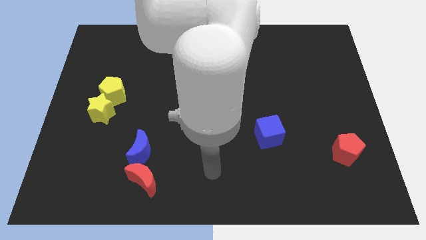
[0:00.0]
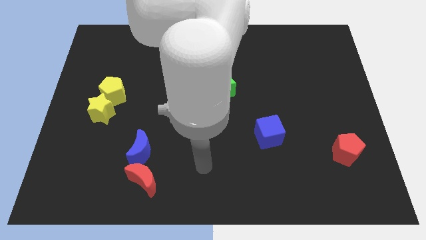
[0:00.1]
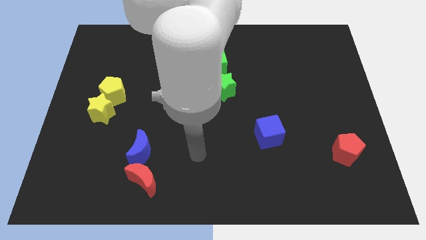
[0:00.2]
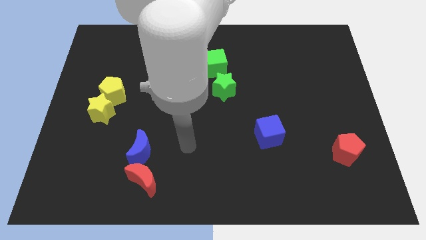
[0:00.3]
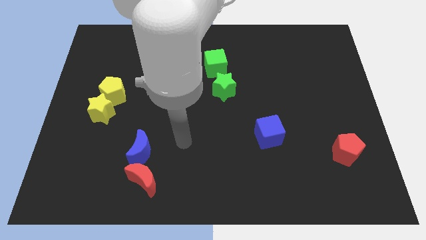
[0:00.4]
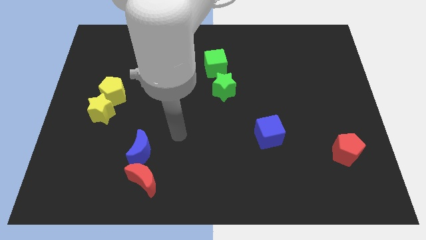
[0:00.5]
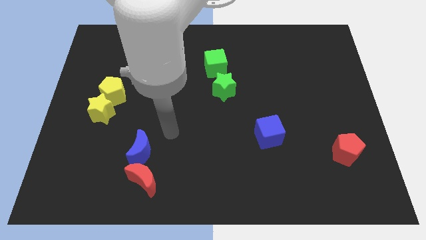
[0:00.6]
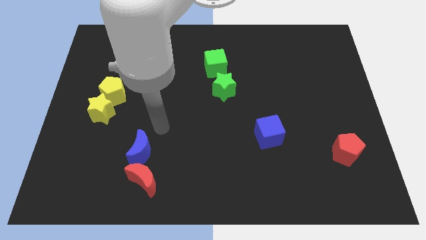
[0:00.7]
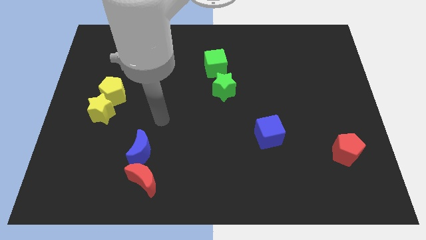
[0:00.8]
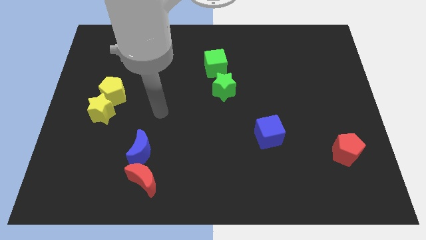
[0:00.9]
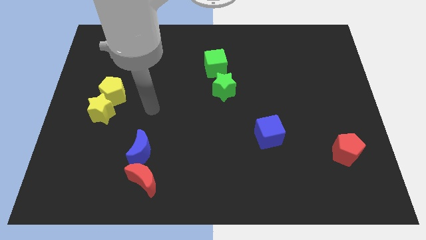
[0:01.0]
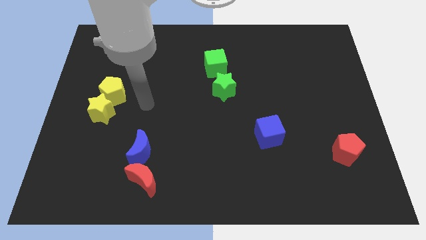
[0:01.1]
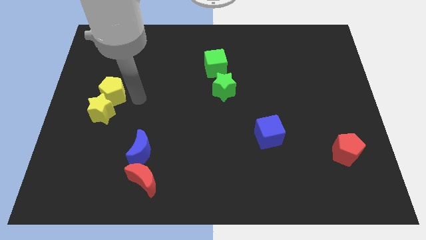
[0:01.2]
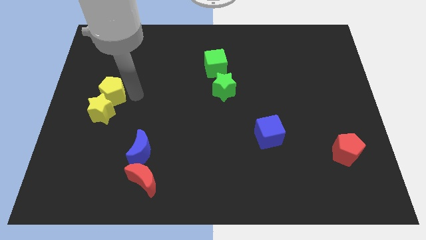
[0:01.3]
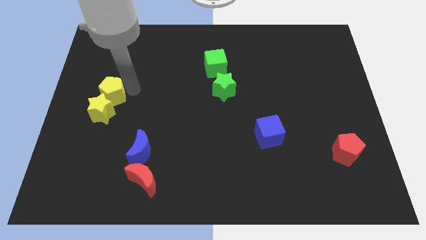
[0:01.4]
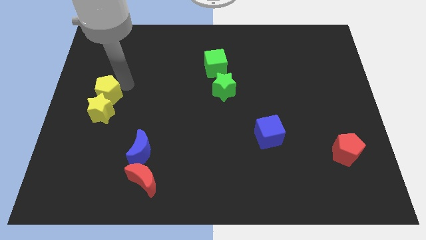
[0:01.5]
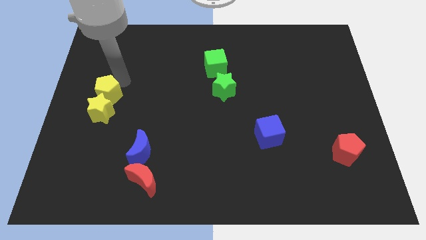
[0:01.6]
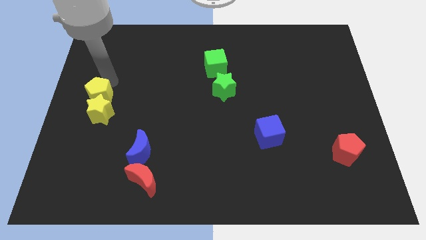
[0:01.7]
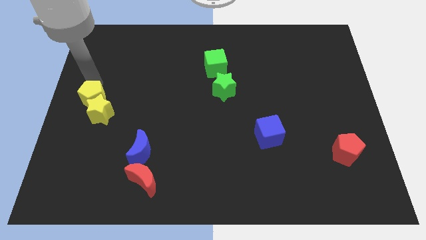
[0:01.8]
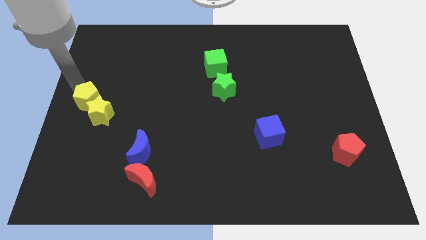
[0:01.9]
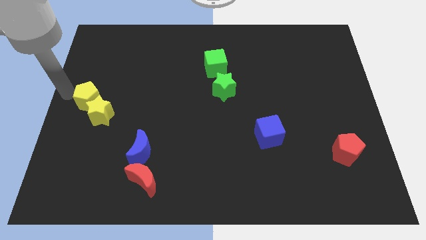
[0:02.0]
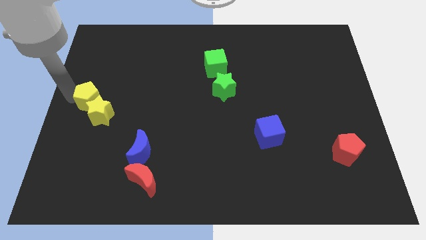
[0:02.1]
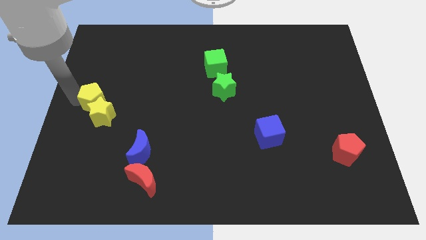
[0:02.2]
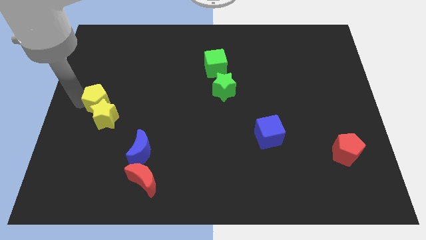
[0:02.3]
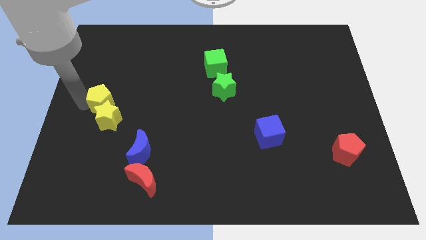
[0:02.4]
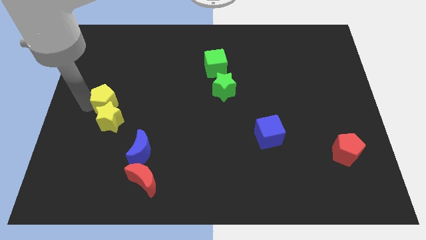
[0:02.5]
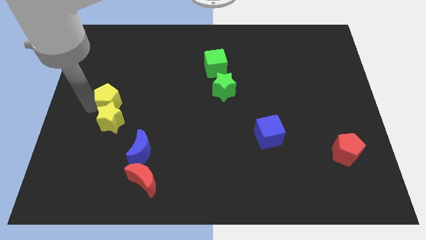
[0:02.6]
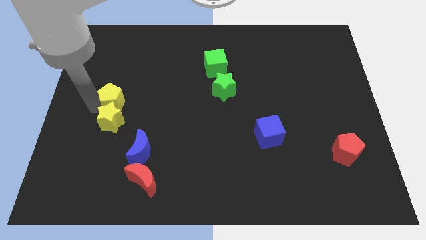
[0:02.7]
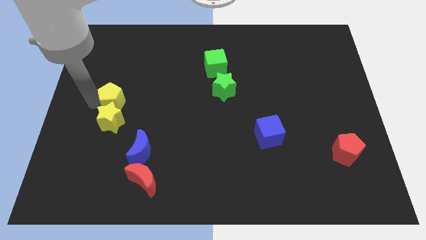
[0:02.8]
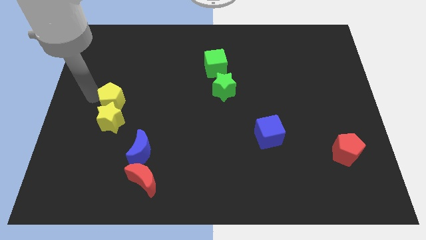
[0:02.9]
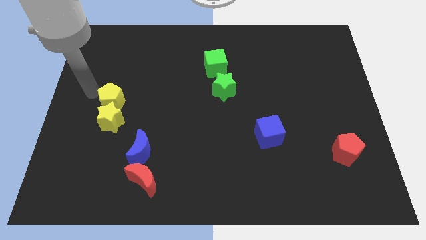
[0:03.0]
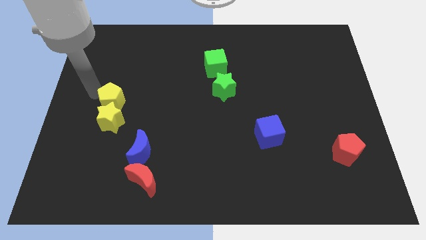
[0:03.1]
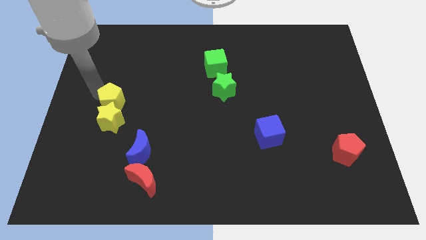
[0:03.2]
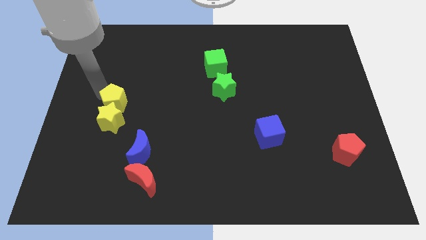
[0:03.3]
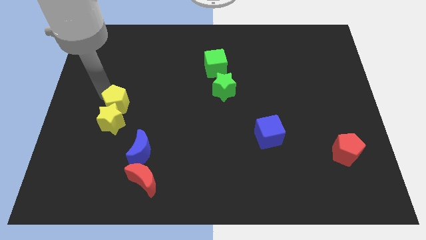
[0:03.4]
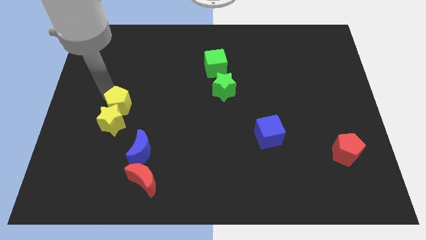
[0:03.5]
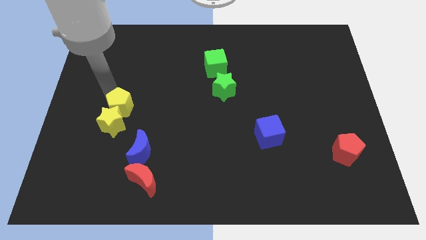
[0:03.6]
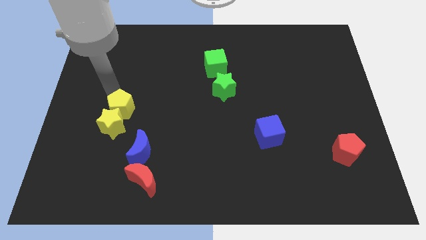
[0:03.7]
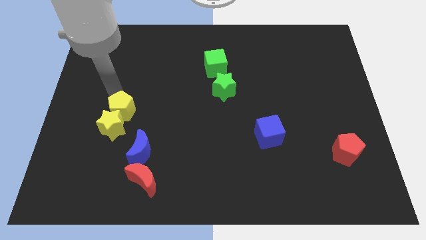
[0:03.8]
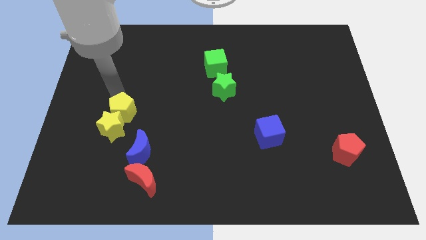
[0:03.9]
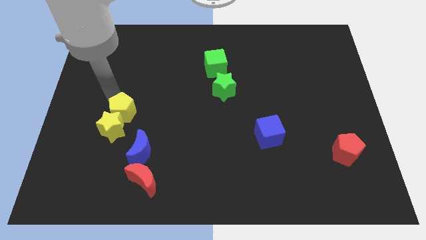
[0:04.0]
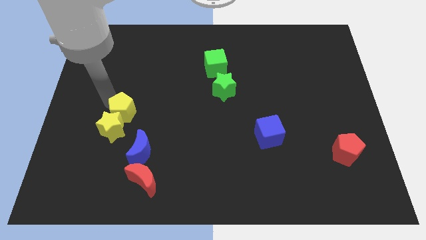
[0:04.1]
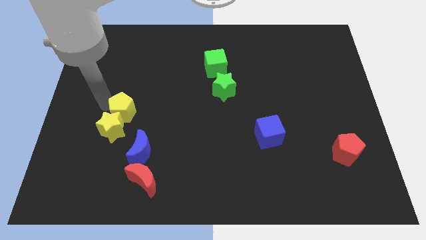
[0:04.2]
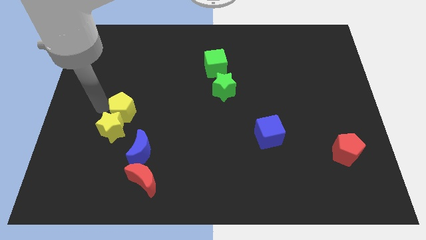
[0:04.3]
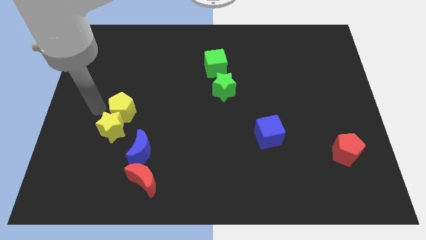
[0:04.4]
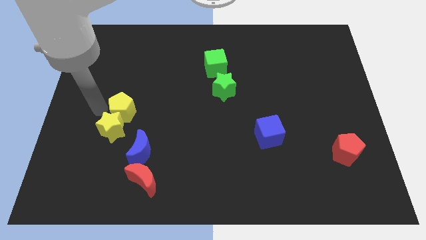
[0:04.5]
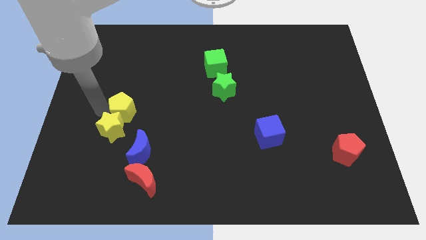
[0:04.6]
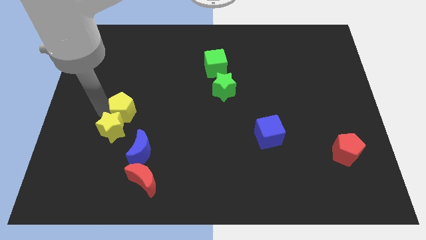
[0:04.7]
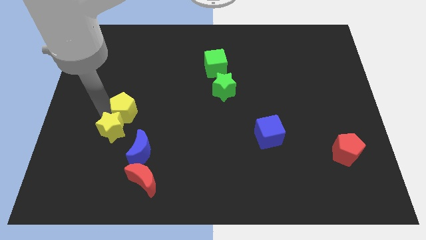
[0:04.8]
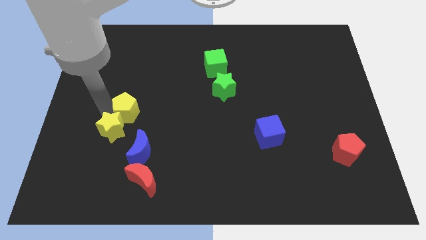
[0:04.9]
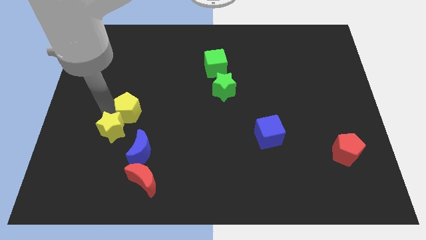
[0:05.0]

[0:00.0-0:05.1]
slightly push the yellow pentagon downwards and to the right

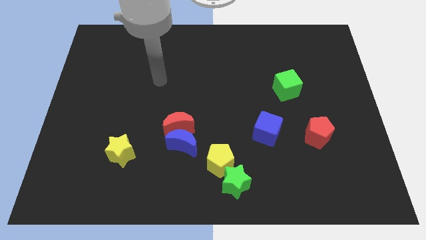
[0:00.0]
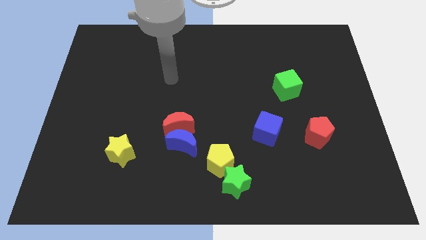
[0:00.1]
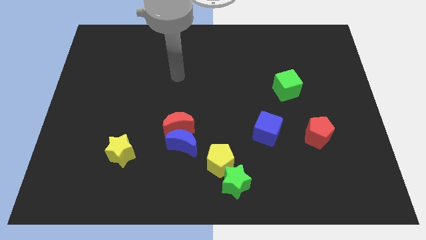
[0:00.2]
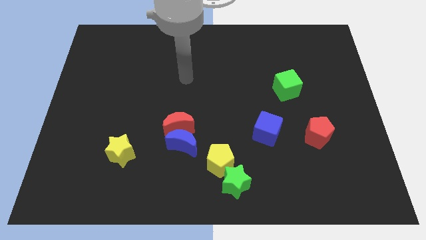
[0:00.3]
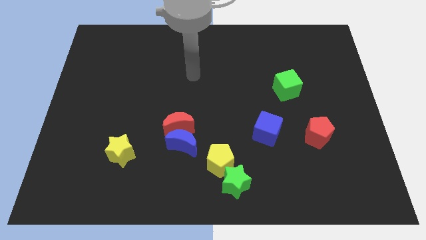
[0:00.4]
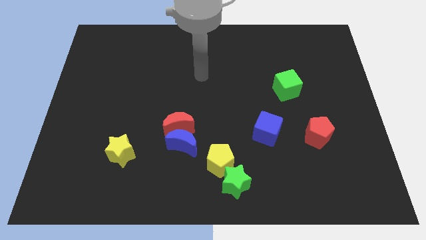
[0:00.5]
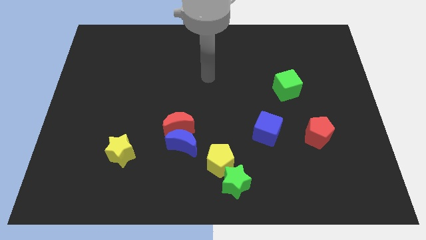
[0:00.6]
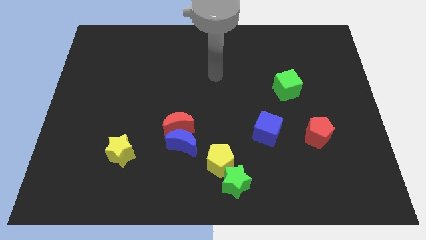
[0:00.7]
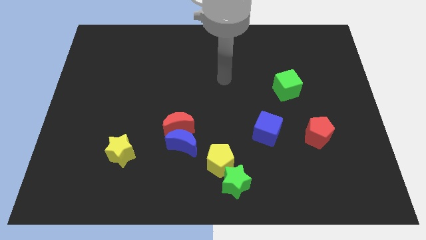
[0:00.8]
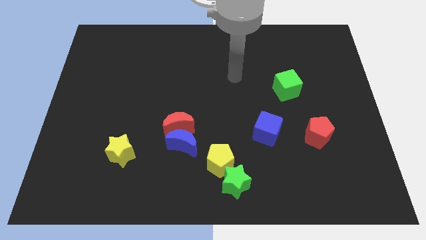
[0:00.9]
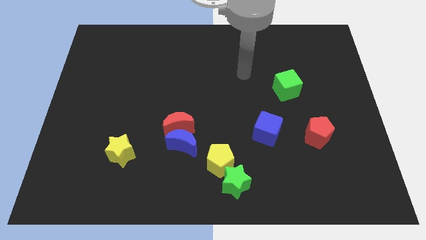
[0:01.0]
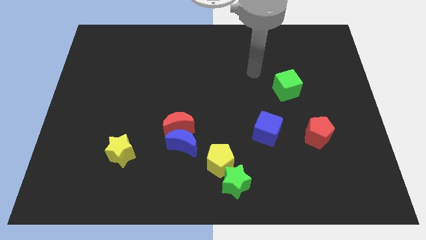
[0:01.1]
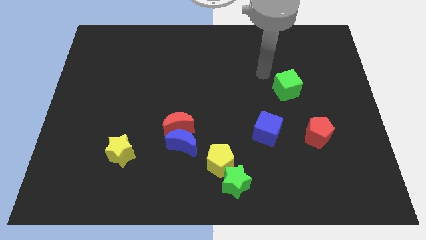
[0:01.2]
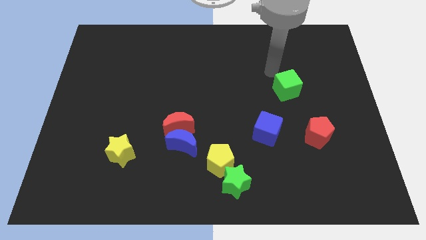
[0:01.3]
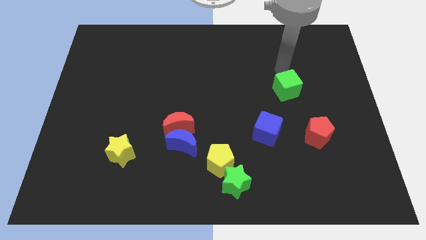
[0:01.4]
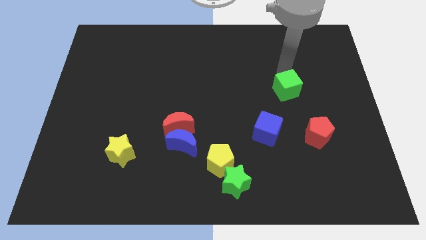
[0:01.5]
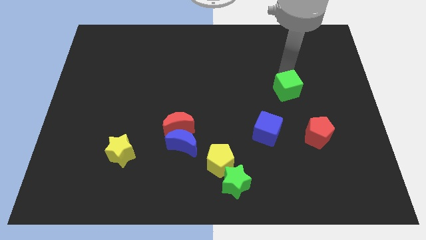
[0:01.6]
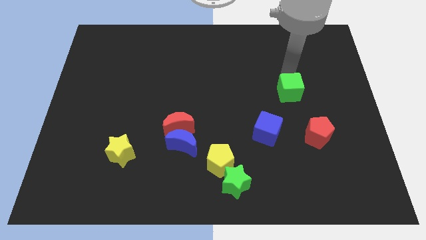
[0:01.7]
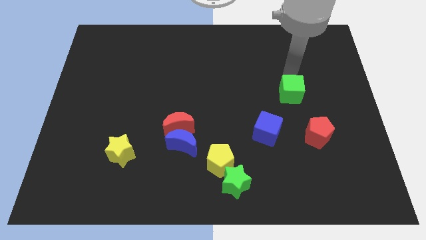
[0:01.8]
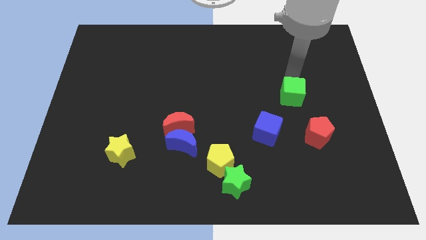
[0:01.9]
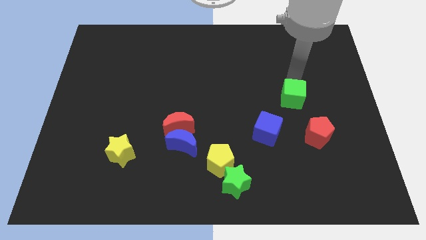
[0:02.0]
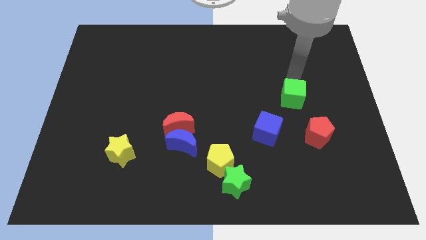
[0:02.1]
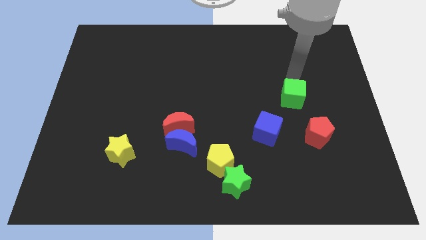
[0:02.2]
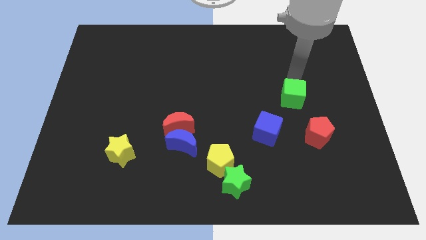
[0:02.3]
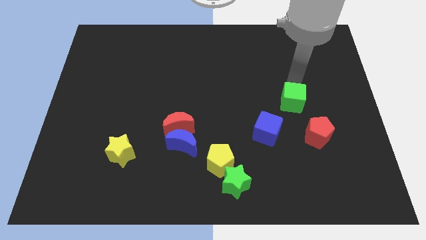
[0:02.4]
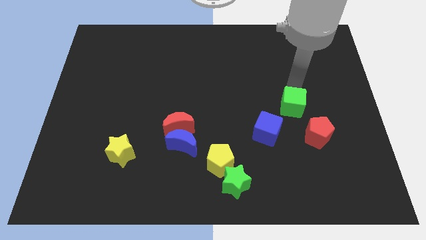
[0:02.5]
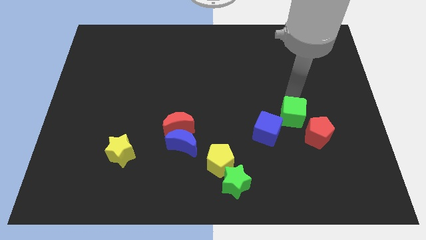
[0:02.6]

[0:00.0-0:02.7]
push the green cube a little downwards

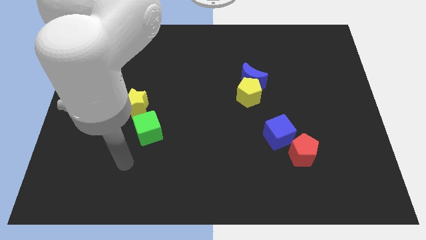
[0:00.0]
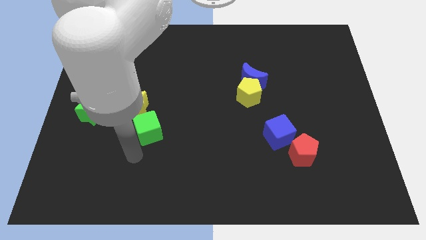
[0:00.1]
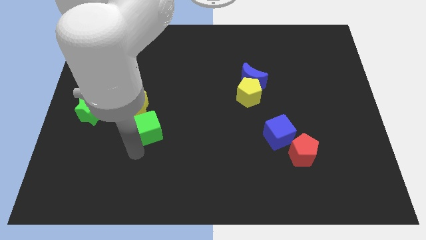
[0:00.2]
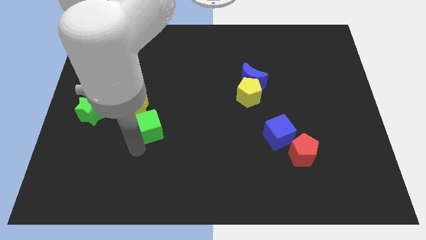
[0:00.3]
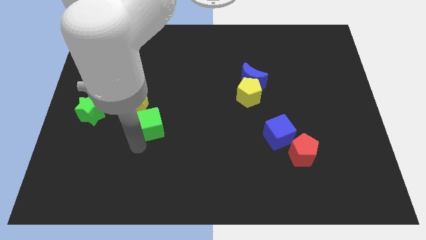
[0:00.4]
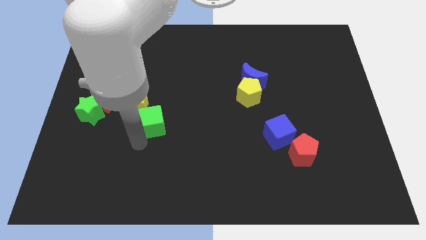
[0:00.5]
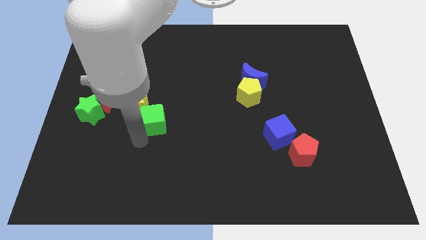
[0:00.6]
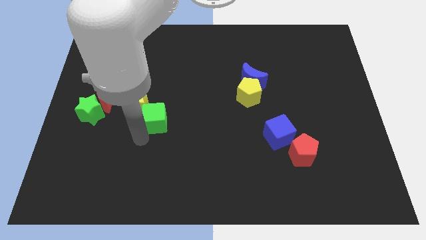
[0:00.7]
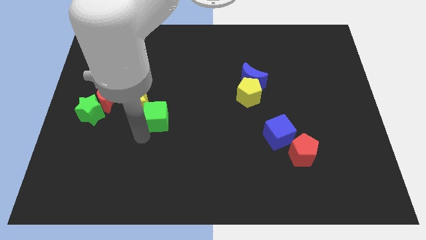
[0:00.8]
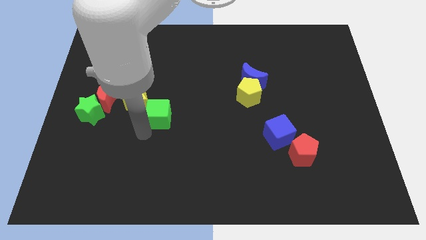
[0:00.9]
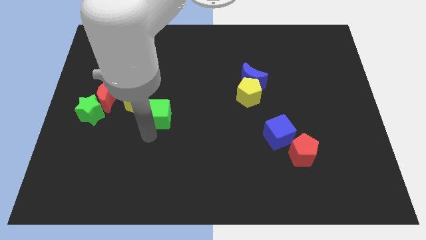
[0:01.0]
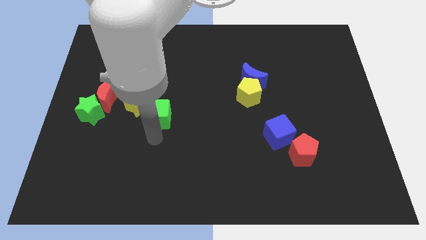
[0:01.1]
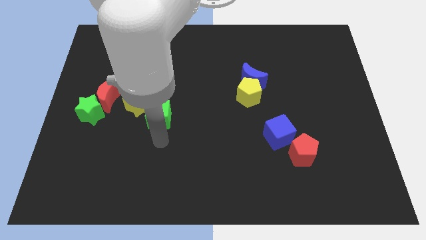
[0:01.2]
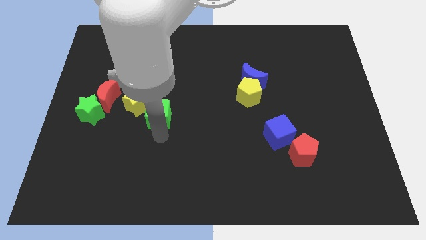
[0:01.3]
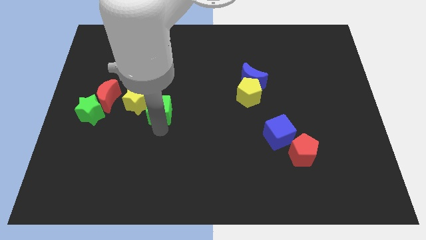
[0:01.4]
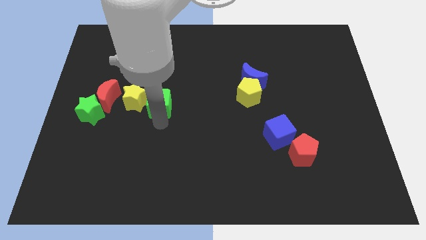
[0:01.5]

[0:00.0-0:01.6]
move the green cube up a little bit
